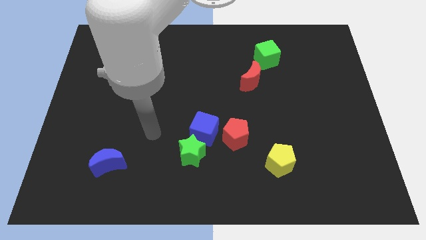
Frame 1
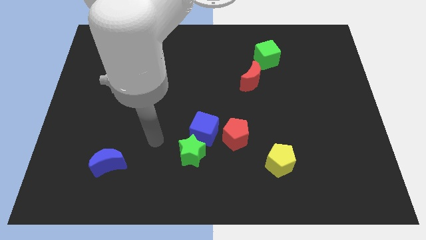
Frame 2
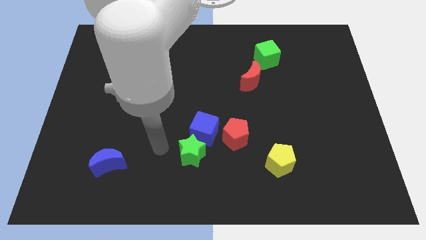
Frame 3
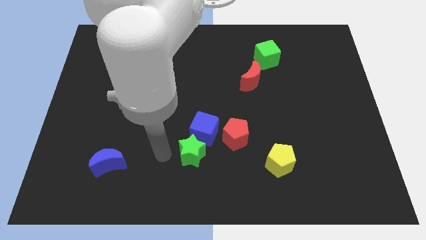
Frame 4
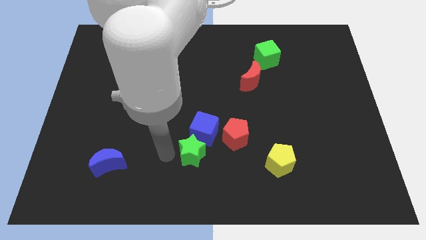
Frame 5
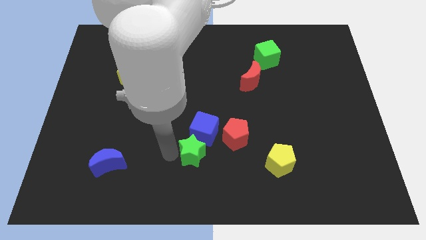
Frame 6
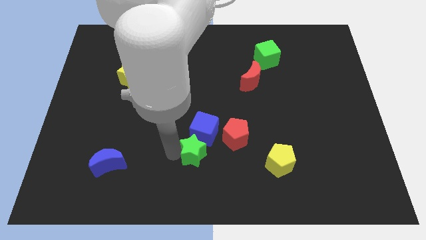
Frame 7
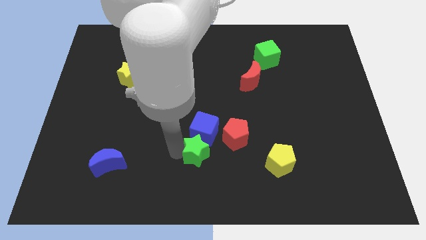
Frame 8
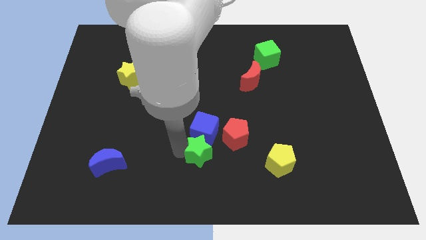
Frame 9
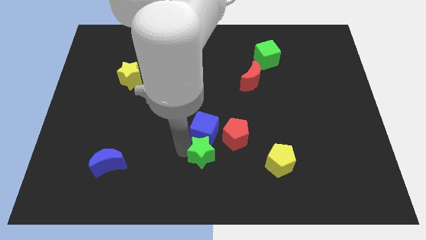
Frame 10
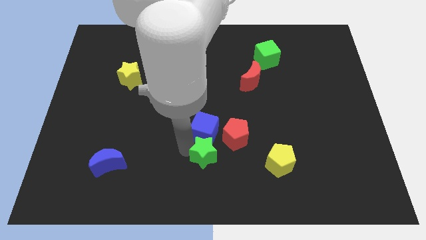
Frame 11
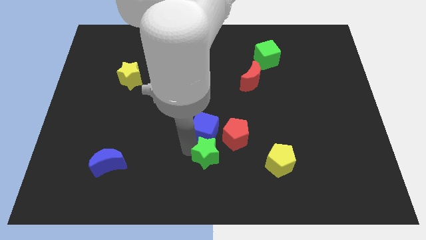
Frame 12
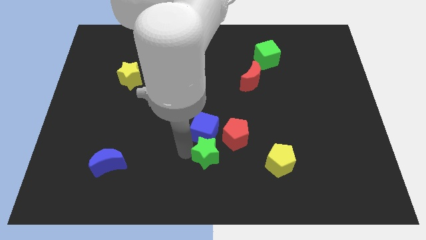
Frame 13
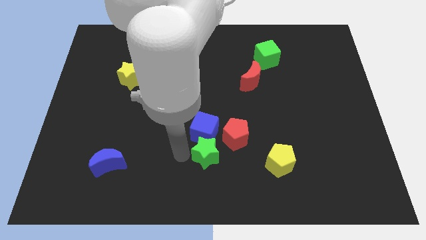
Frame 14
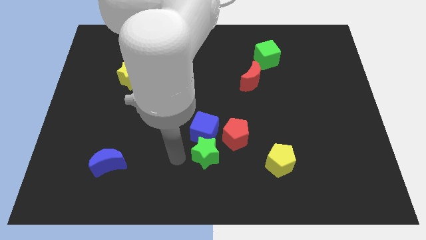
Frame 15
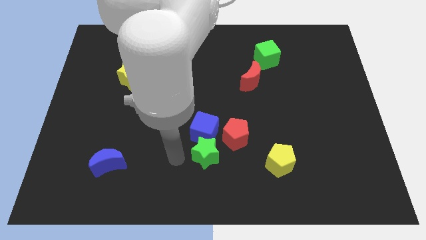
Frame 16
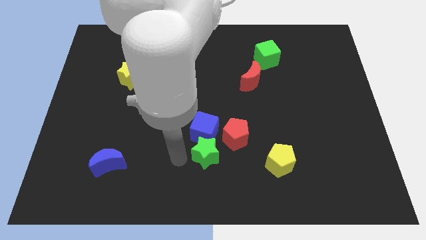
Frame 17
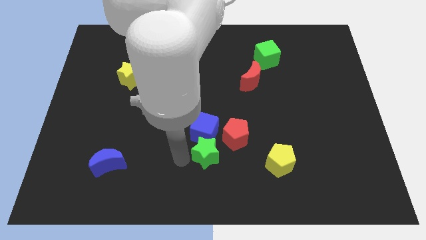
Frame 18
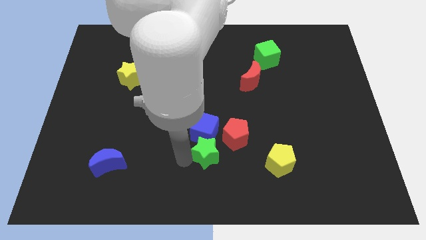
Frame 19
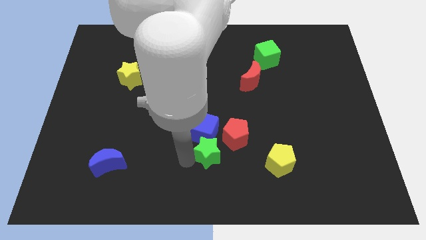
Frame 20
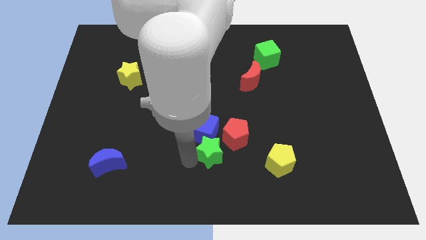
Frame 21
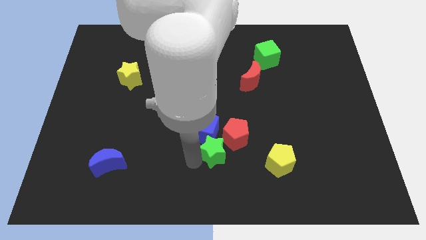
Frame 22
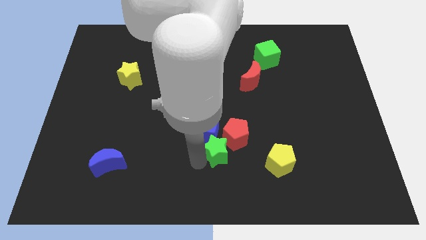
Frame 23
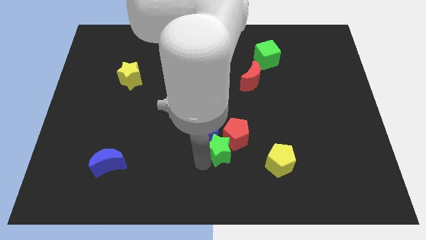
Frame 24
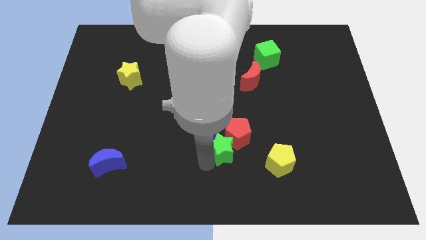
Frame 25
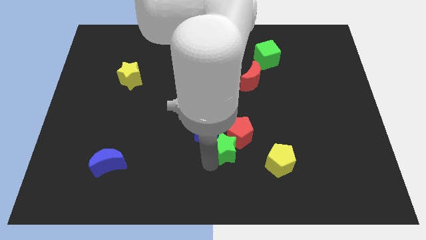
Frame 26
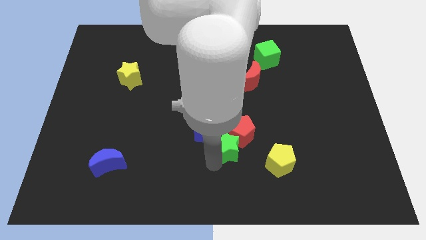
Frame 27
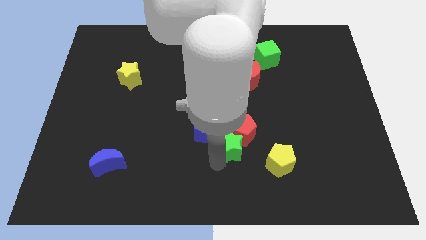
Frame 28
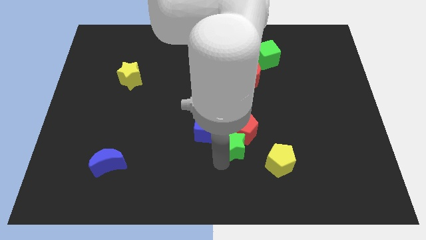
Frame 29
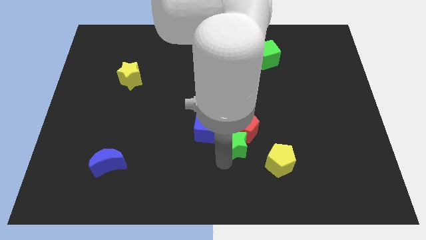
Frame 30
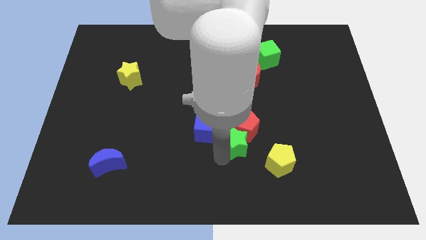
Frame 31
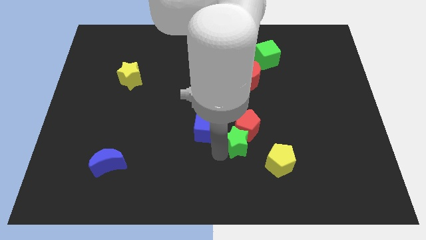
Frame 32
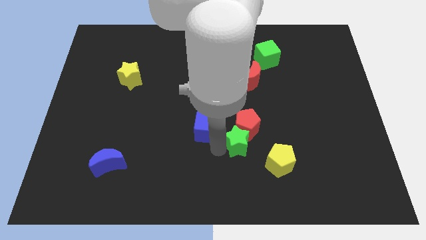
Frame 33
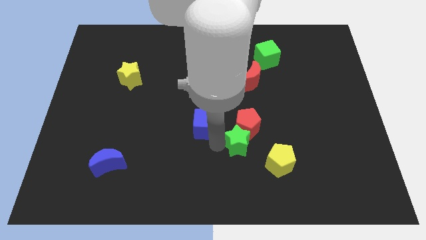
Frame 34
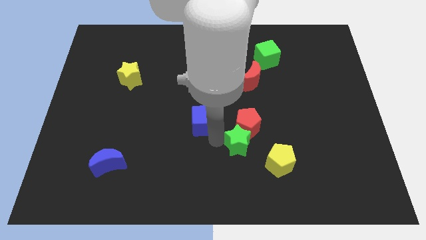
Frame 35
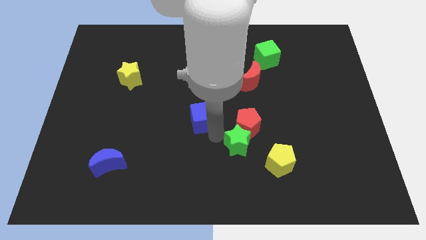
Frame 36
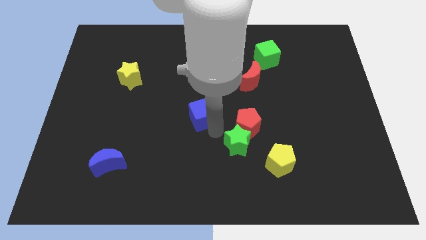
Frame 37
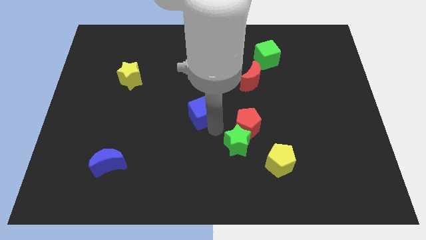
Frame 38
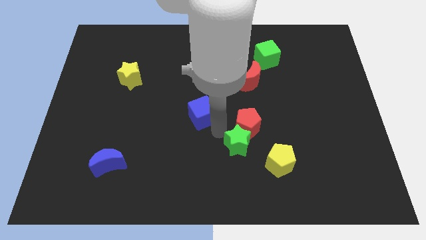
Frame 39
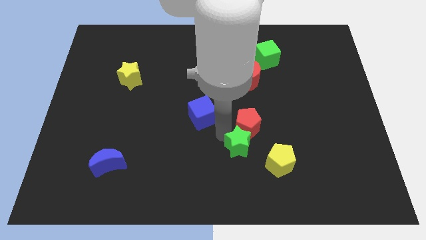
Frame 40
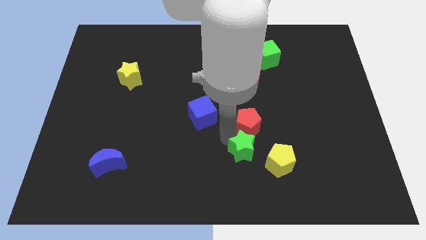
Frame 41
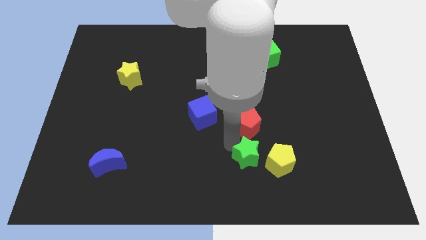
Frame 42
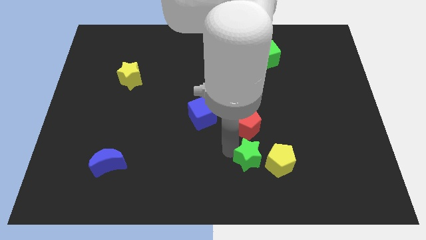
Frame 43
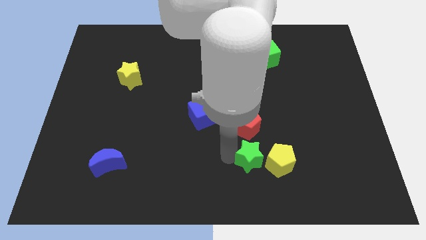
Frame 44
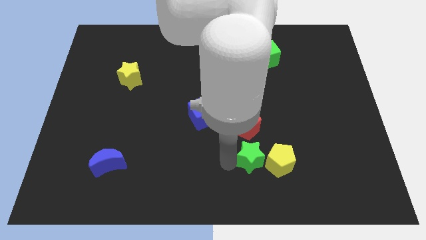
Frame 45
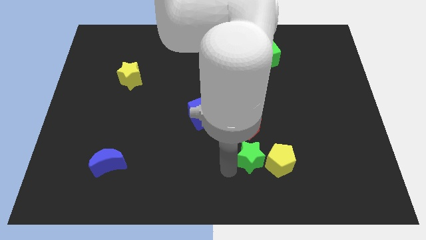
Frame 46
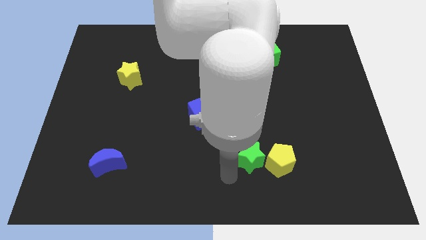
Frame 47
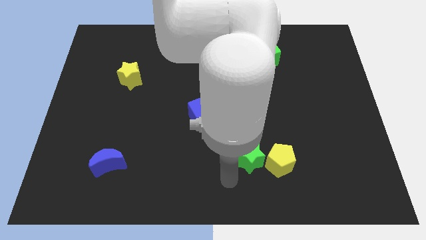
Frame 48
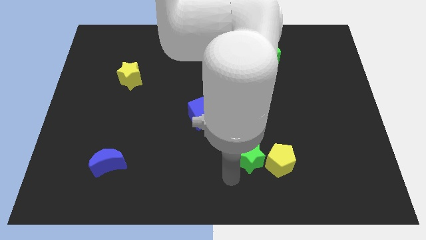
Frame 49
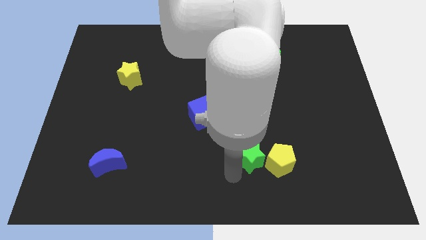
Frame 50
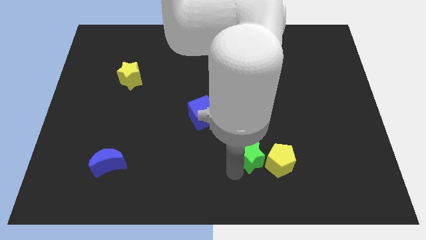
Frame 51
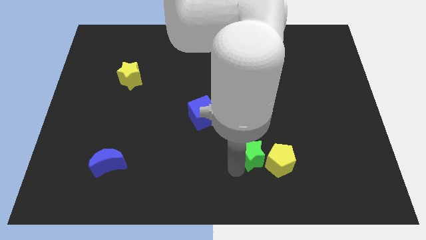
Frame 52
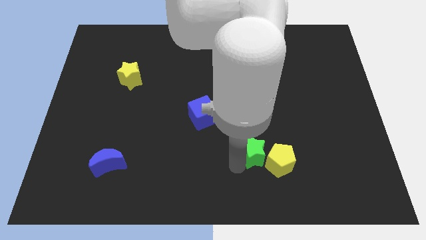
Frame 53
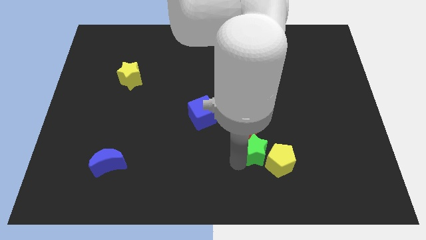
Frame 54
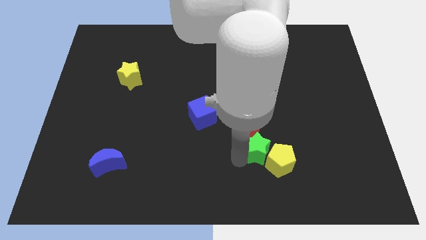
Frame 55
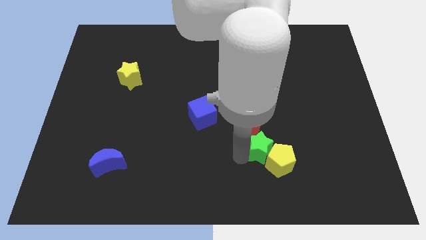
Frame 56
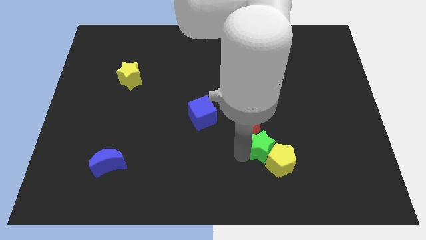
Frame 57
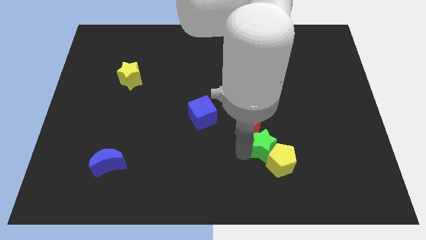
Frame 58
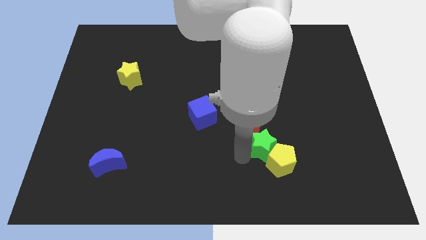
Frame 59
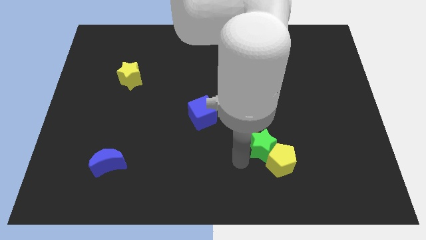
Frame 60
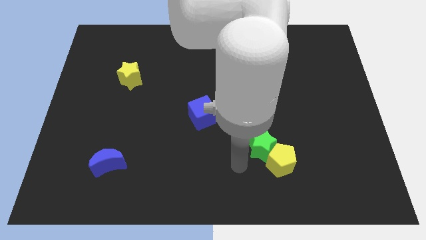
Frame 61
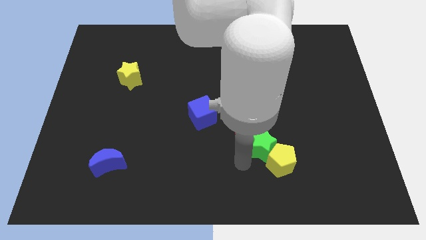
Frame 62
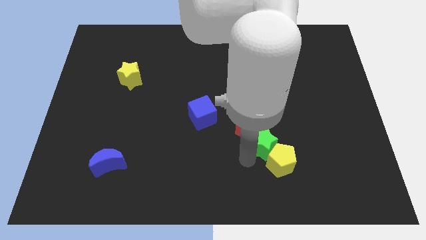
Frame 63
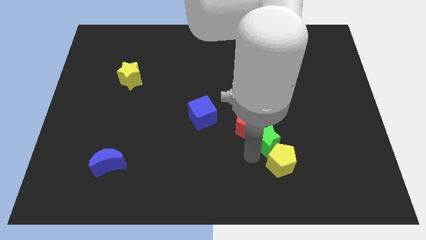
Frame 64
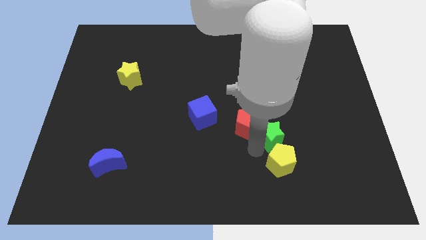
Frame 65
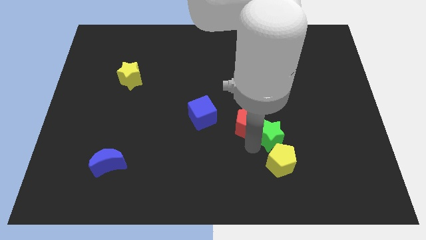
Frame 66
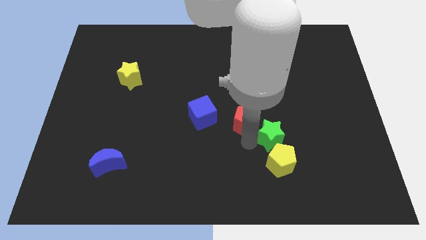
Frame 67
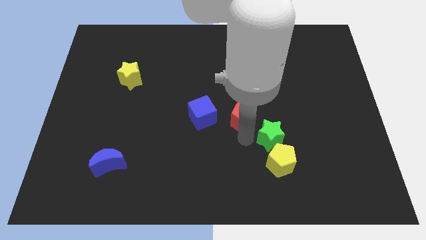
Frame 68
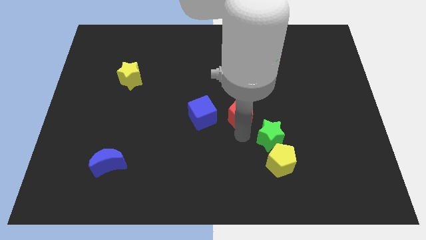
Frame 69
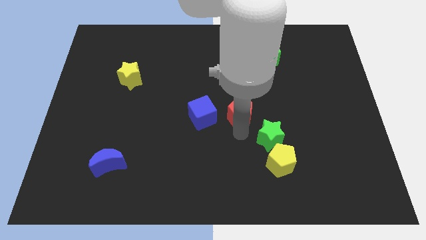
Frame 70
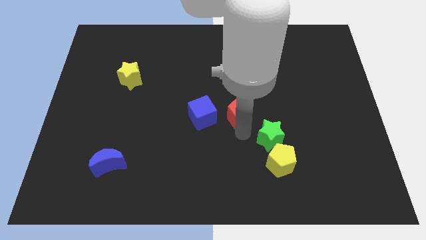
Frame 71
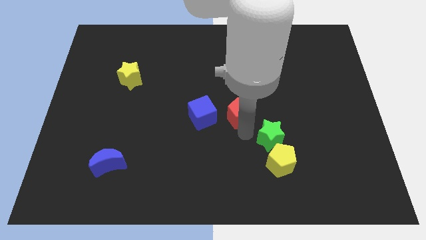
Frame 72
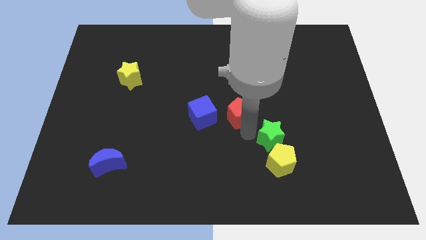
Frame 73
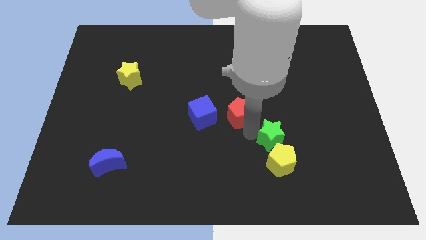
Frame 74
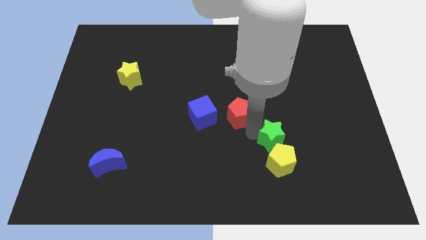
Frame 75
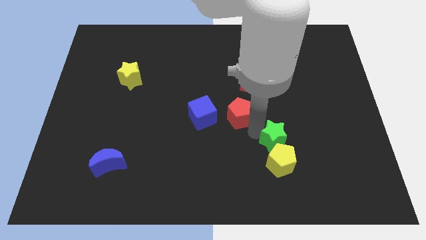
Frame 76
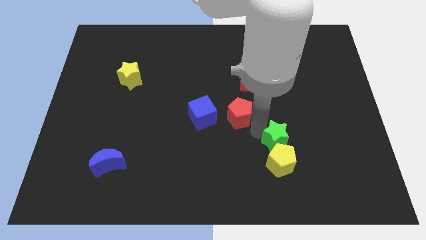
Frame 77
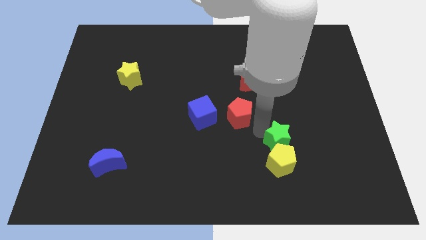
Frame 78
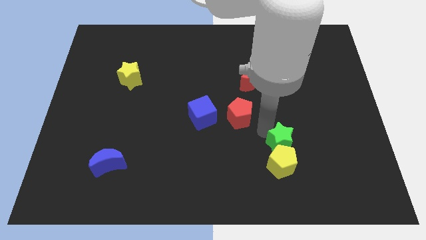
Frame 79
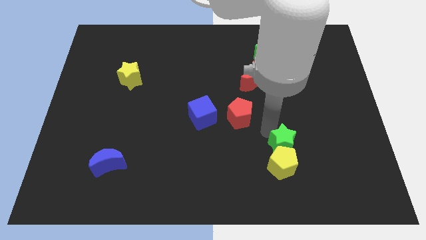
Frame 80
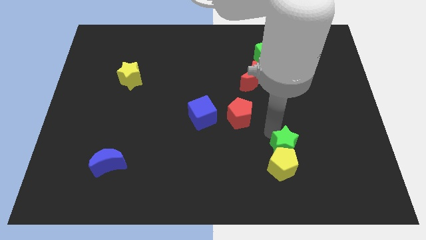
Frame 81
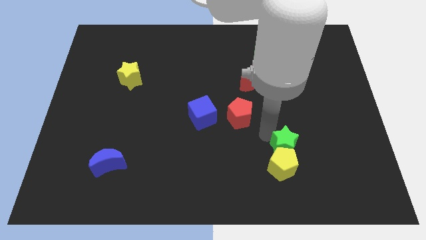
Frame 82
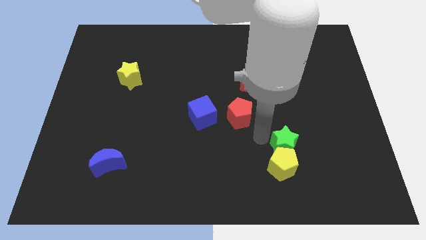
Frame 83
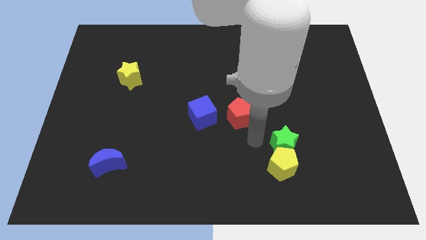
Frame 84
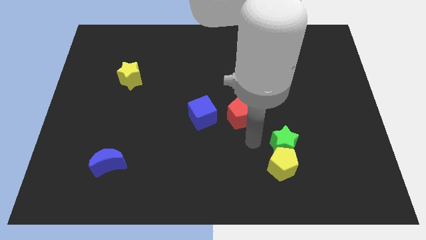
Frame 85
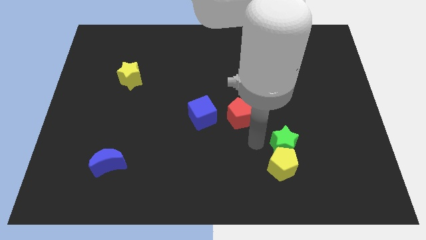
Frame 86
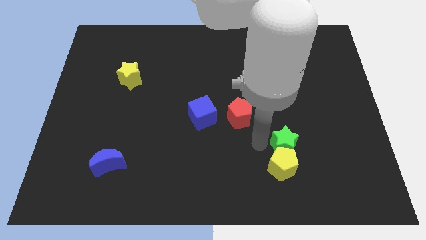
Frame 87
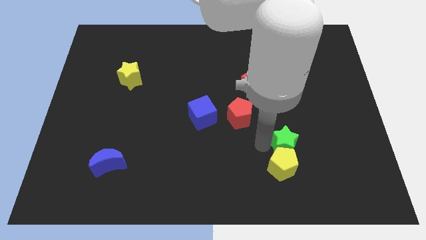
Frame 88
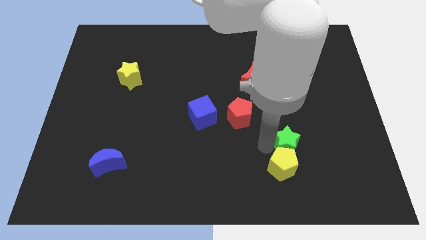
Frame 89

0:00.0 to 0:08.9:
push the green star right
